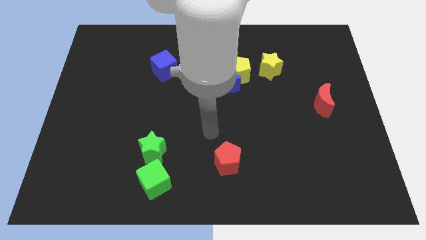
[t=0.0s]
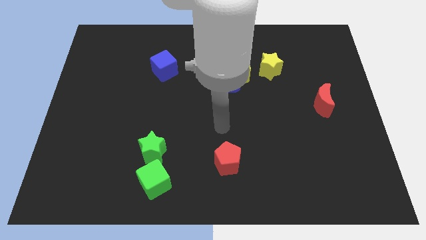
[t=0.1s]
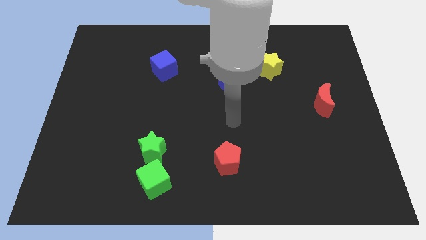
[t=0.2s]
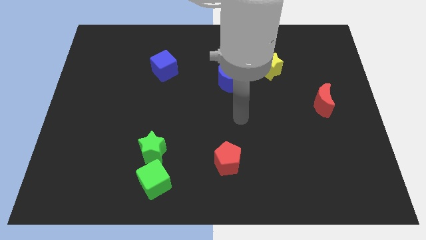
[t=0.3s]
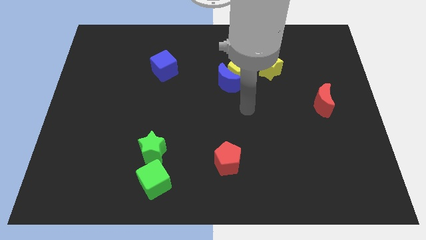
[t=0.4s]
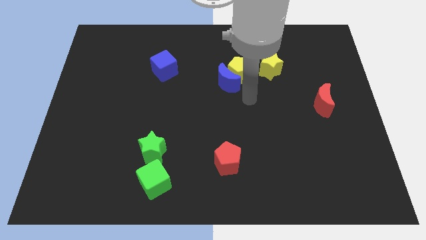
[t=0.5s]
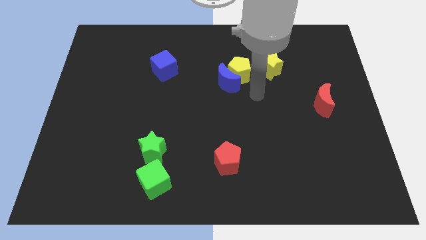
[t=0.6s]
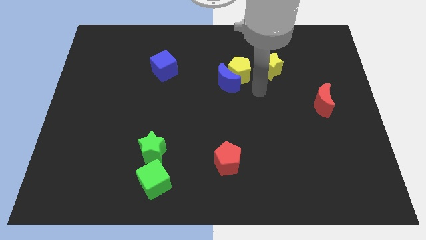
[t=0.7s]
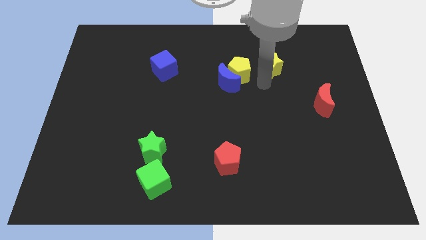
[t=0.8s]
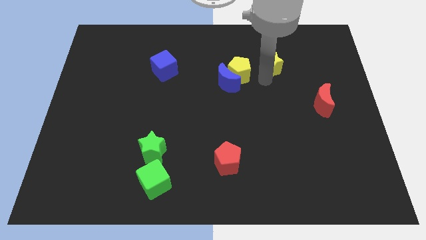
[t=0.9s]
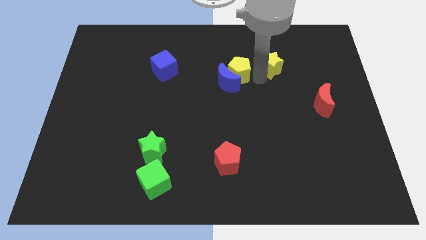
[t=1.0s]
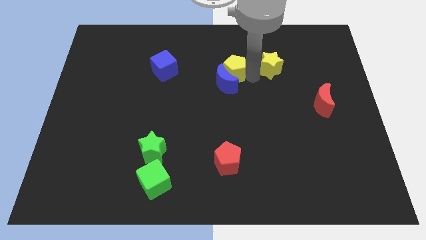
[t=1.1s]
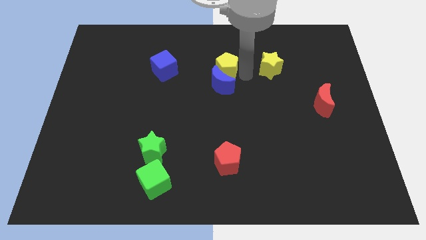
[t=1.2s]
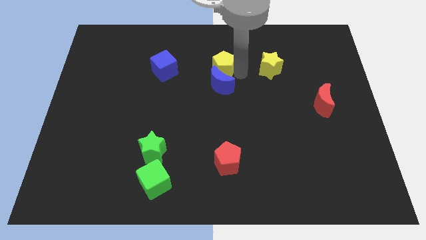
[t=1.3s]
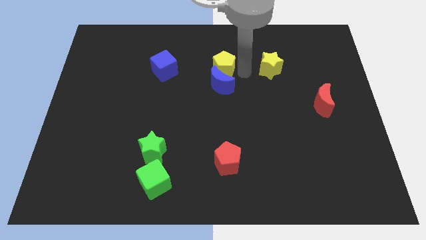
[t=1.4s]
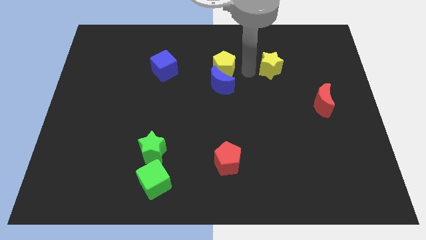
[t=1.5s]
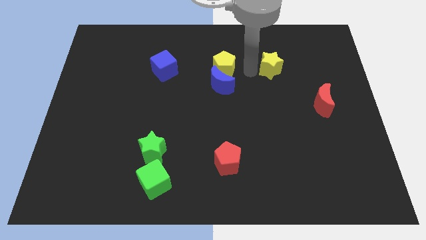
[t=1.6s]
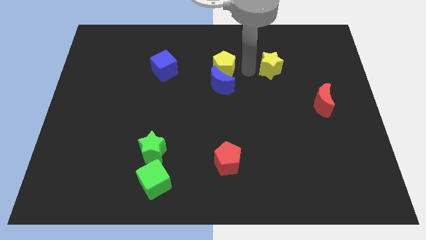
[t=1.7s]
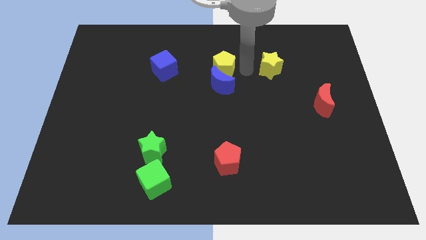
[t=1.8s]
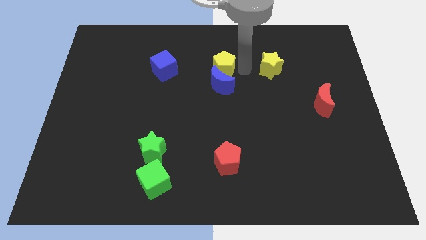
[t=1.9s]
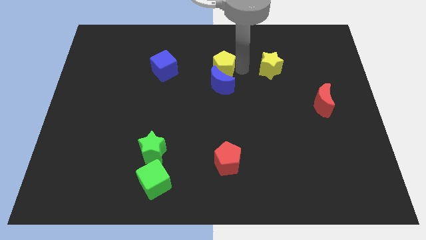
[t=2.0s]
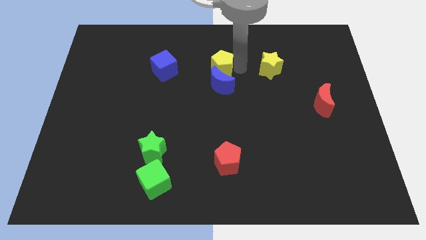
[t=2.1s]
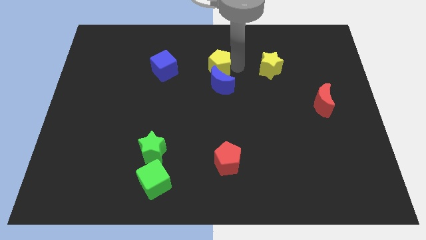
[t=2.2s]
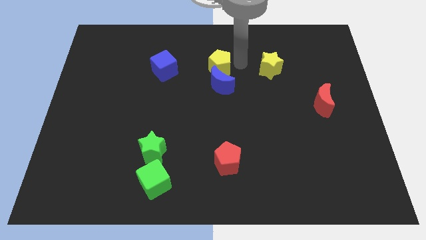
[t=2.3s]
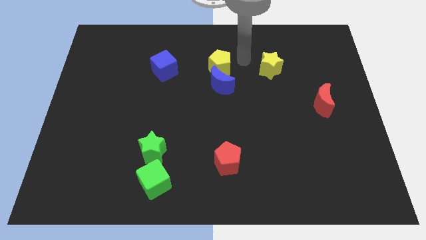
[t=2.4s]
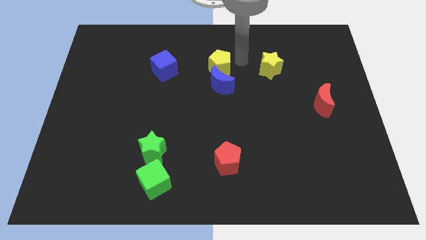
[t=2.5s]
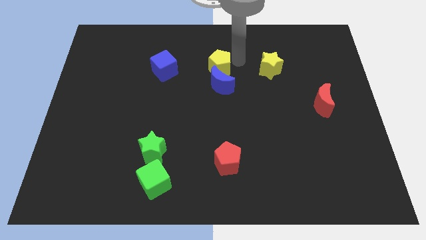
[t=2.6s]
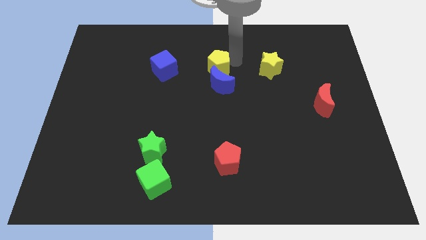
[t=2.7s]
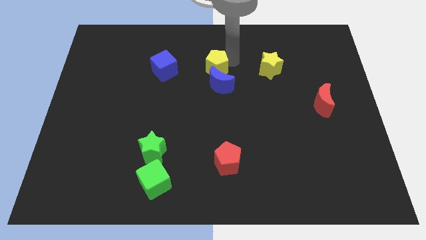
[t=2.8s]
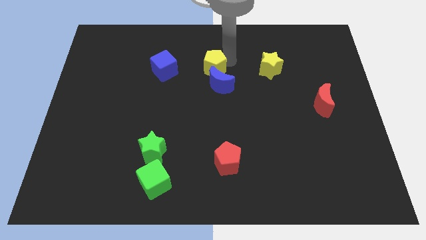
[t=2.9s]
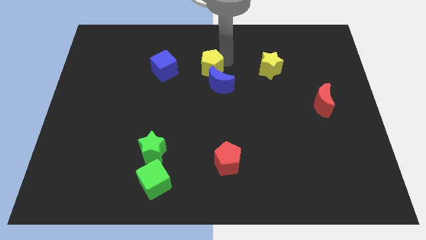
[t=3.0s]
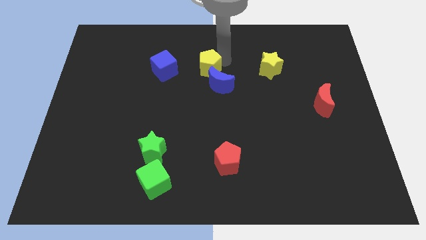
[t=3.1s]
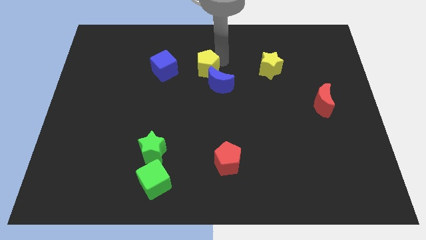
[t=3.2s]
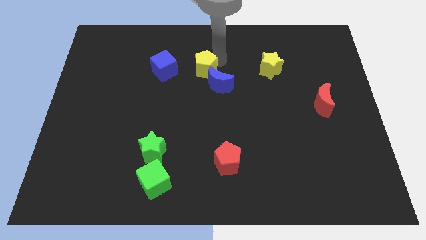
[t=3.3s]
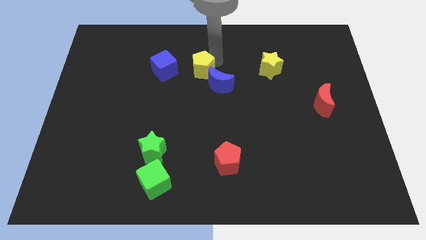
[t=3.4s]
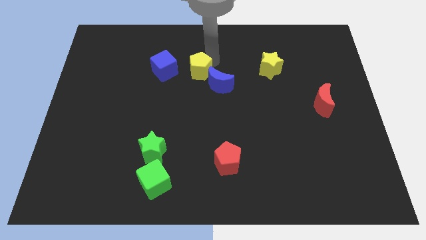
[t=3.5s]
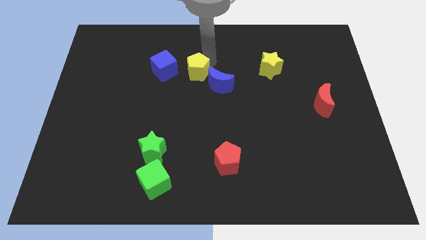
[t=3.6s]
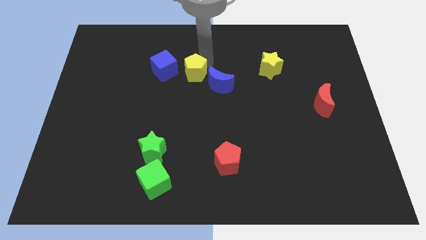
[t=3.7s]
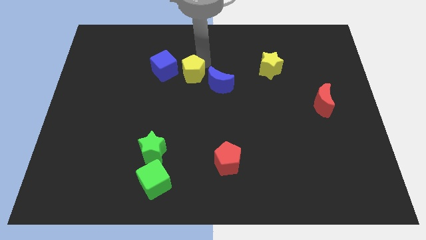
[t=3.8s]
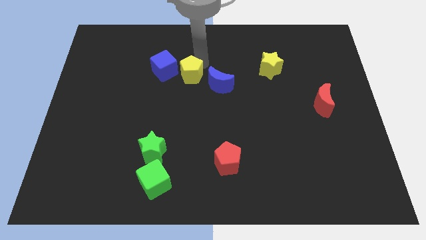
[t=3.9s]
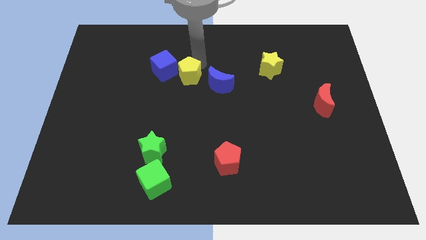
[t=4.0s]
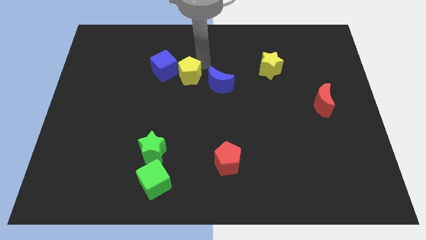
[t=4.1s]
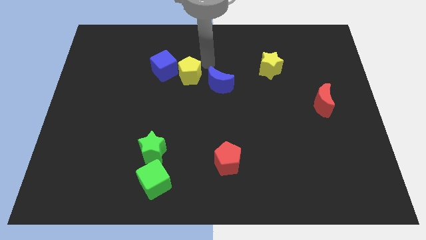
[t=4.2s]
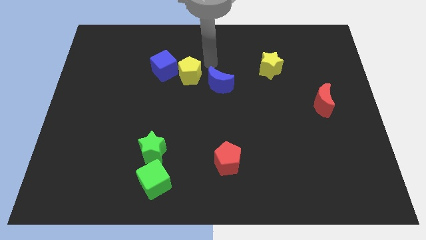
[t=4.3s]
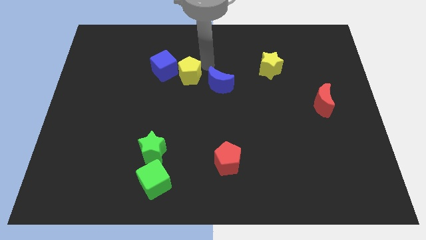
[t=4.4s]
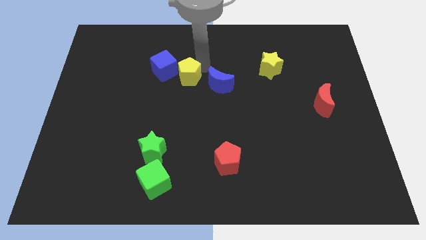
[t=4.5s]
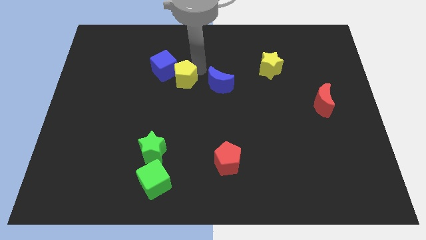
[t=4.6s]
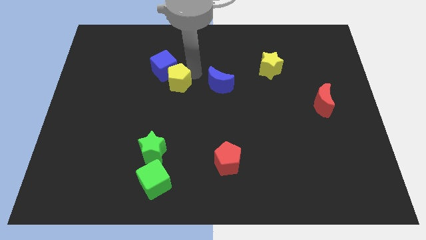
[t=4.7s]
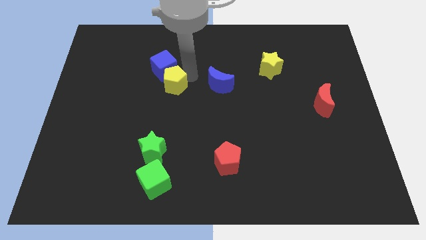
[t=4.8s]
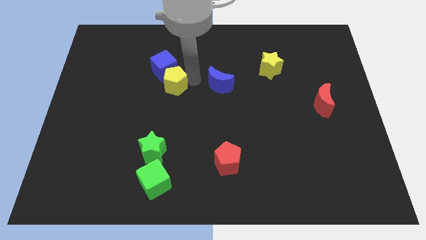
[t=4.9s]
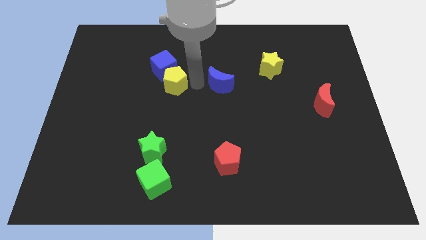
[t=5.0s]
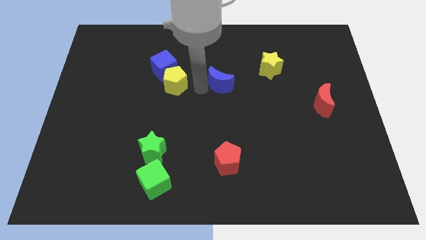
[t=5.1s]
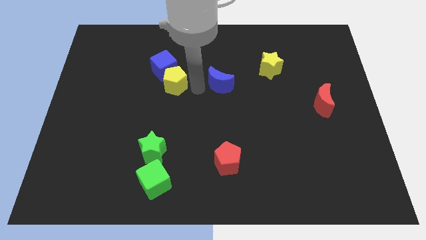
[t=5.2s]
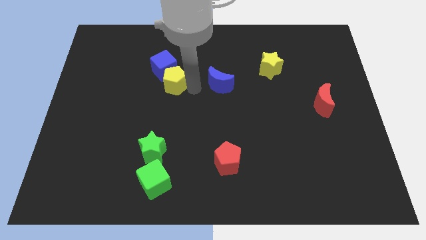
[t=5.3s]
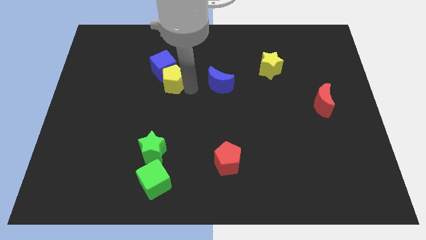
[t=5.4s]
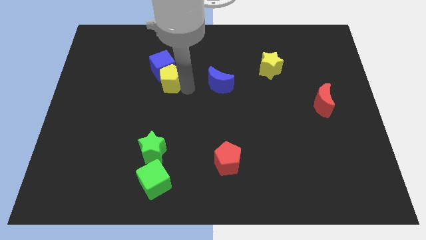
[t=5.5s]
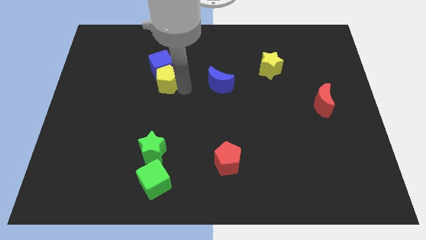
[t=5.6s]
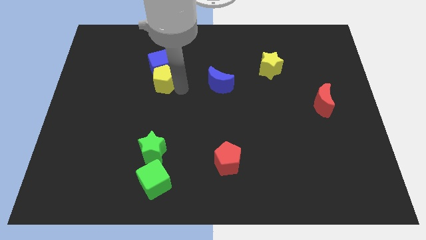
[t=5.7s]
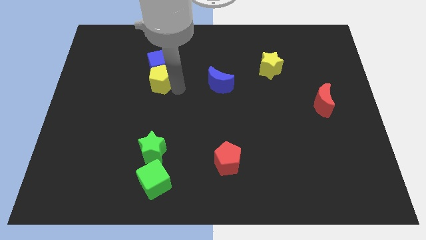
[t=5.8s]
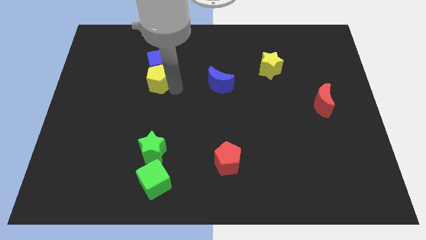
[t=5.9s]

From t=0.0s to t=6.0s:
push the yellow pentagon left

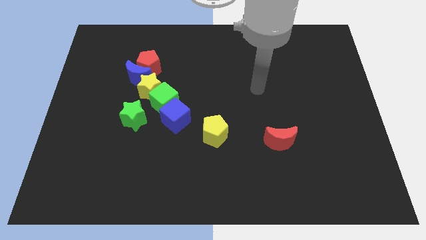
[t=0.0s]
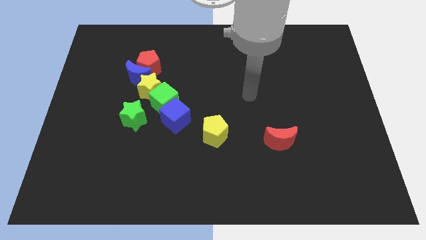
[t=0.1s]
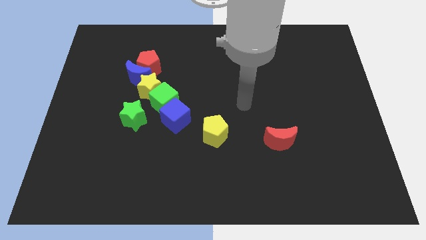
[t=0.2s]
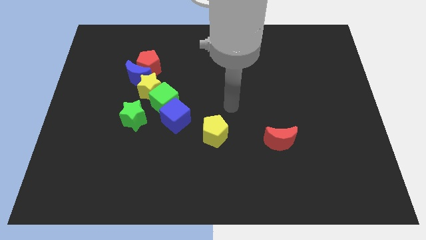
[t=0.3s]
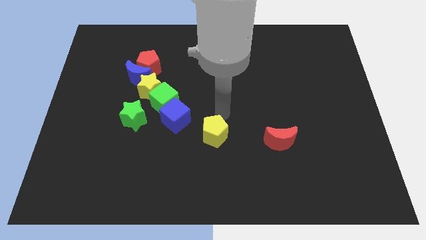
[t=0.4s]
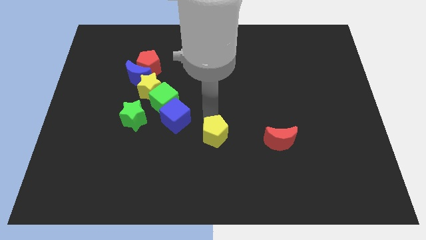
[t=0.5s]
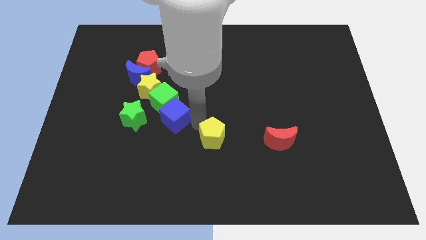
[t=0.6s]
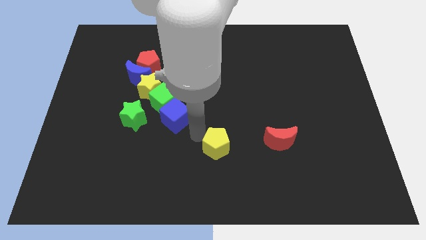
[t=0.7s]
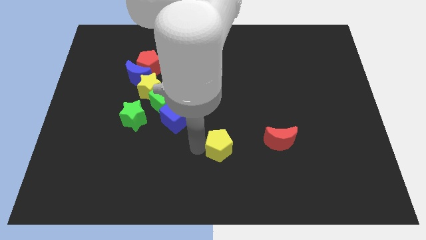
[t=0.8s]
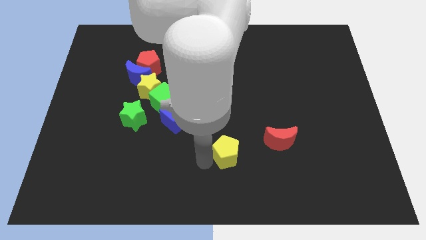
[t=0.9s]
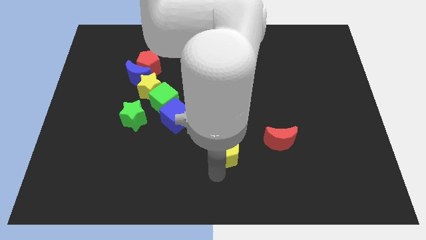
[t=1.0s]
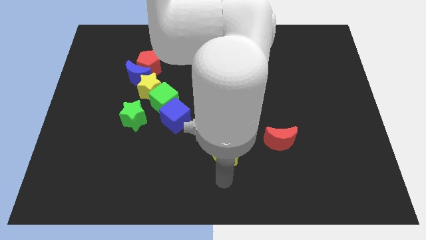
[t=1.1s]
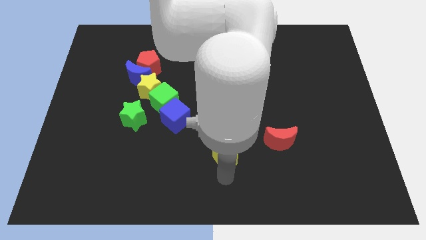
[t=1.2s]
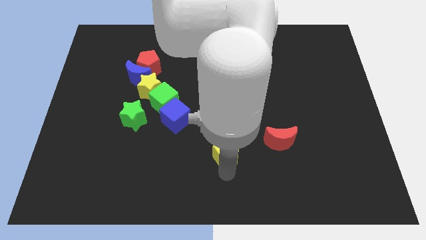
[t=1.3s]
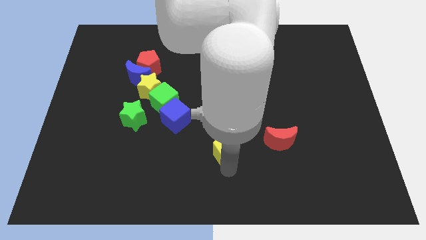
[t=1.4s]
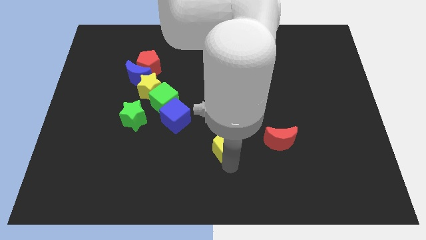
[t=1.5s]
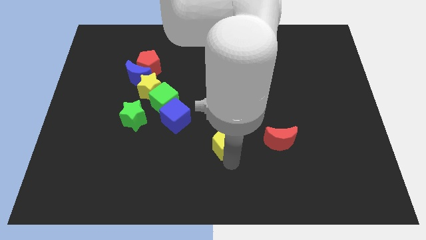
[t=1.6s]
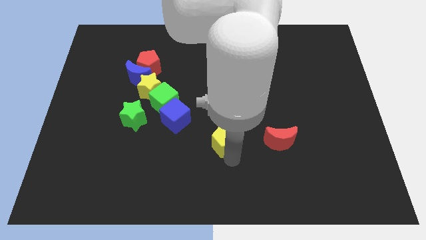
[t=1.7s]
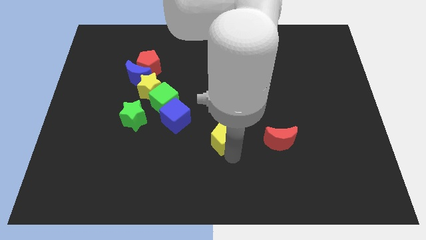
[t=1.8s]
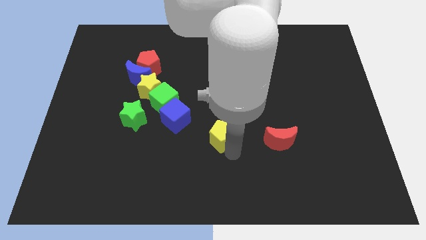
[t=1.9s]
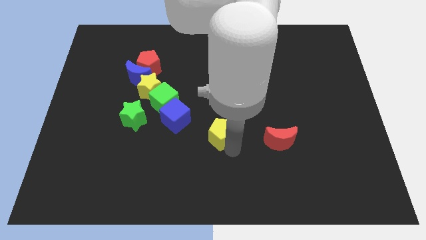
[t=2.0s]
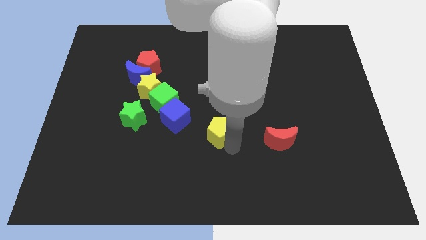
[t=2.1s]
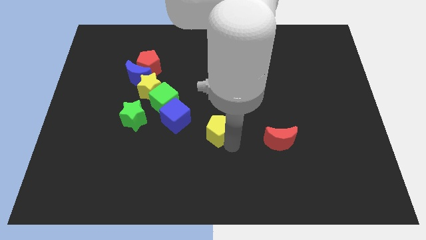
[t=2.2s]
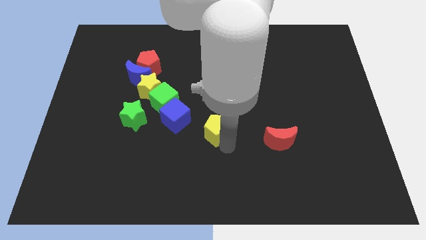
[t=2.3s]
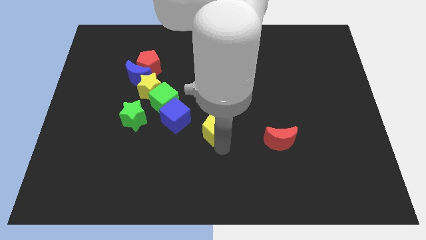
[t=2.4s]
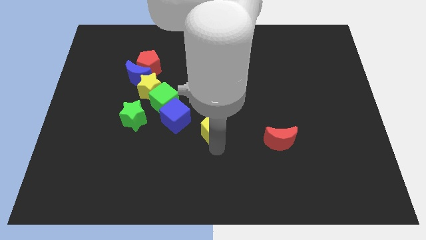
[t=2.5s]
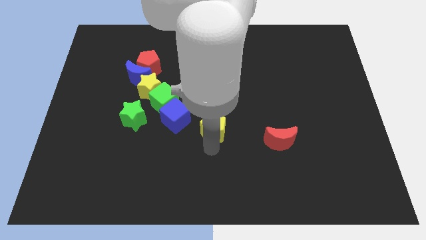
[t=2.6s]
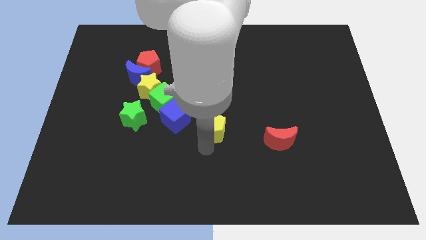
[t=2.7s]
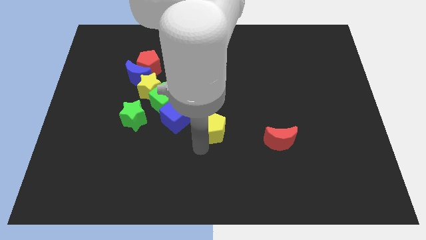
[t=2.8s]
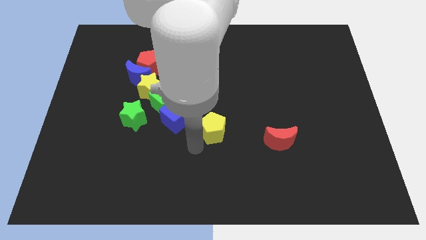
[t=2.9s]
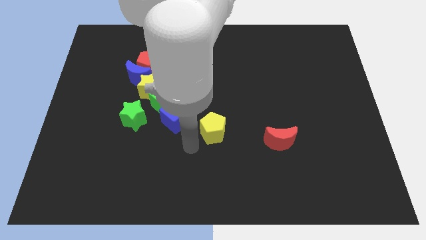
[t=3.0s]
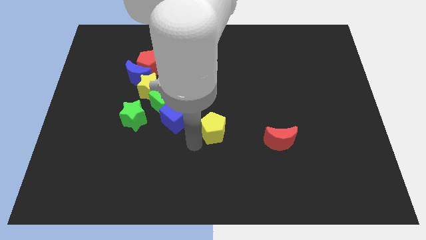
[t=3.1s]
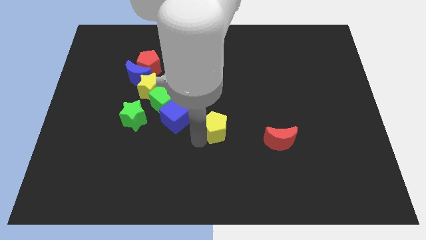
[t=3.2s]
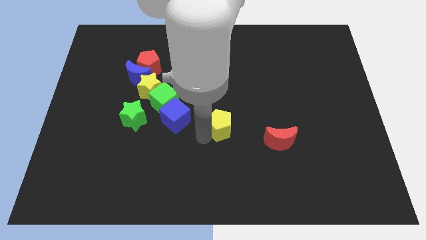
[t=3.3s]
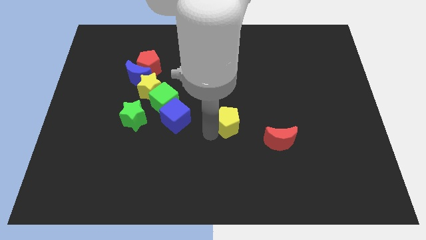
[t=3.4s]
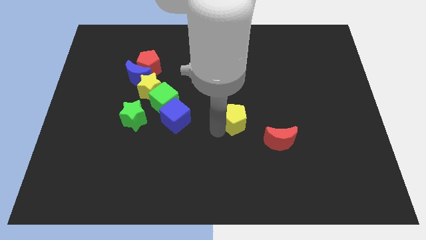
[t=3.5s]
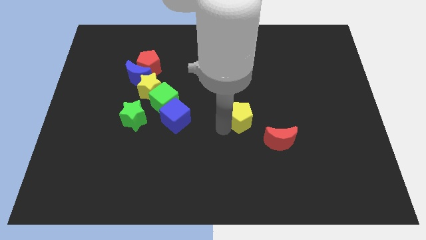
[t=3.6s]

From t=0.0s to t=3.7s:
push the yellow pentagon upwards and then right a bit
